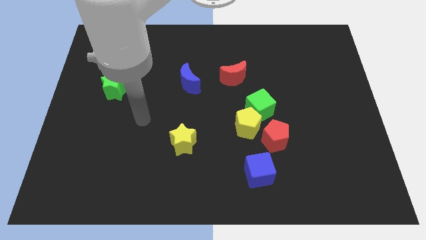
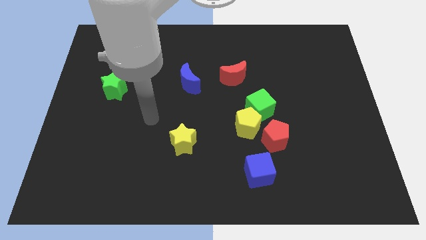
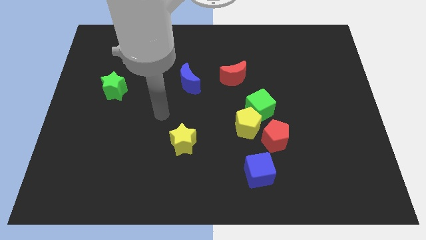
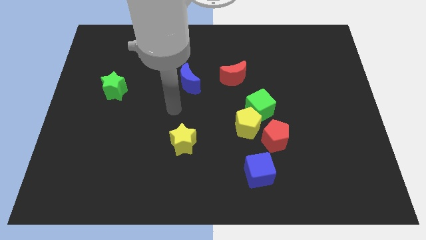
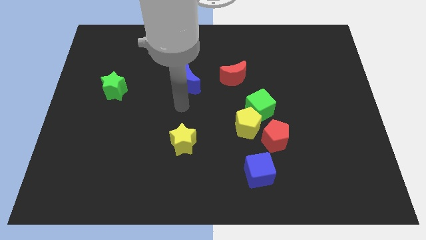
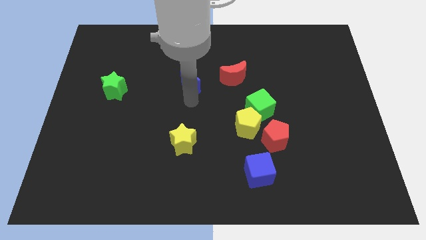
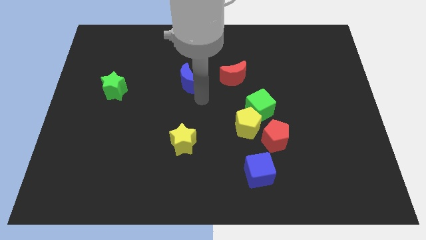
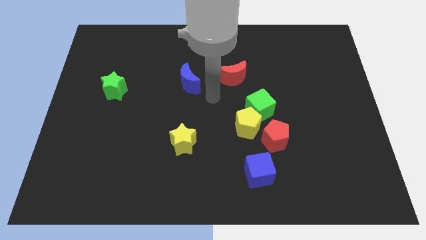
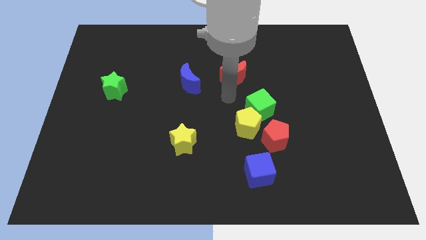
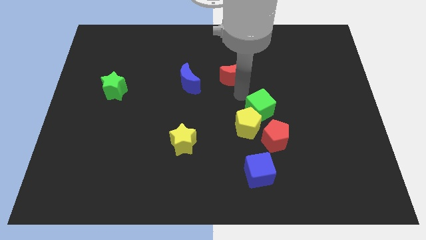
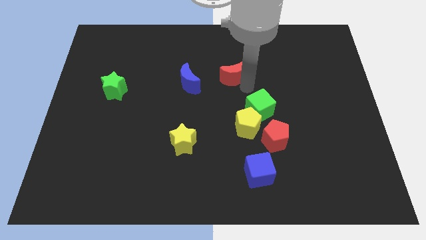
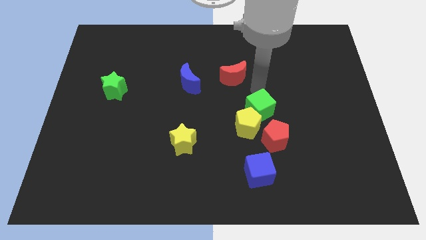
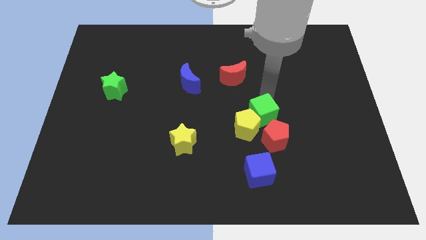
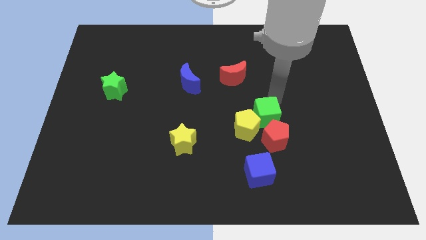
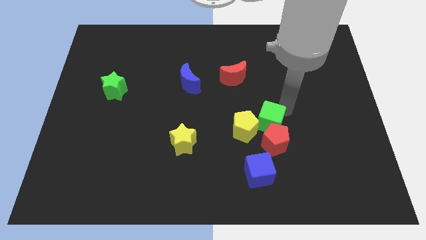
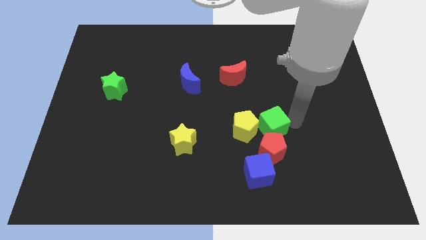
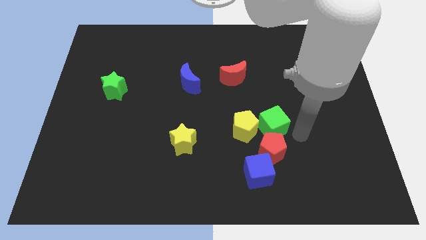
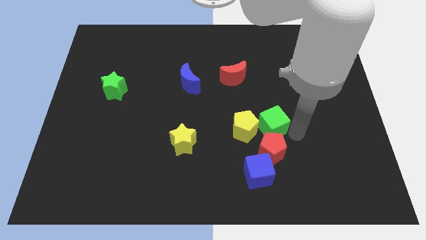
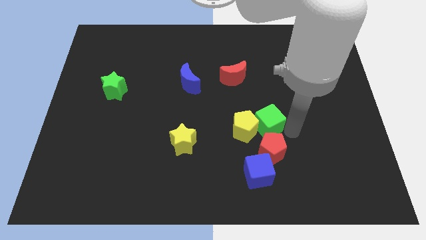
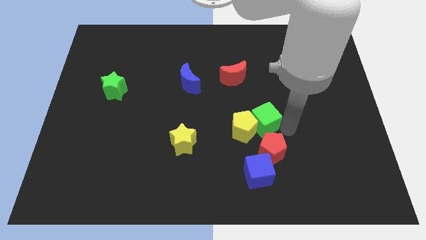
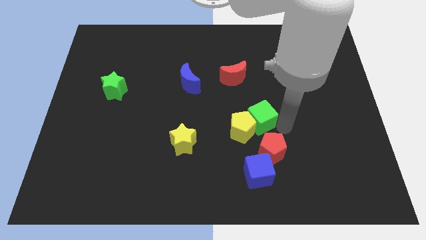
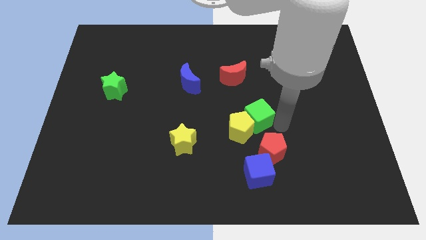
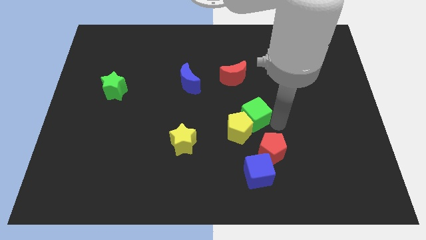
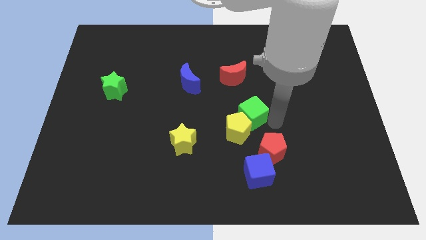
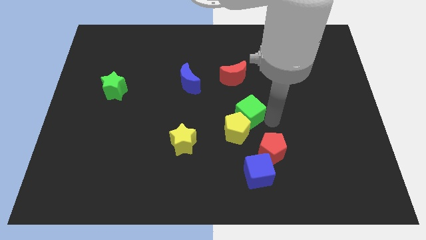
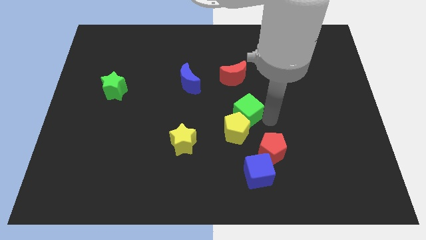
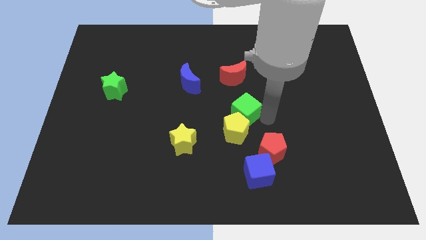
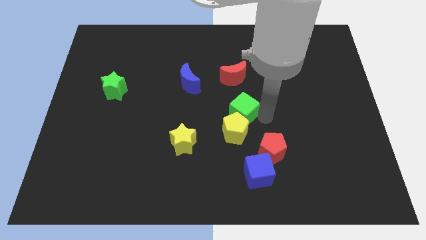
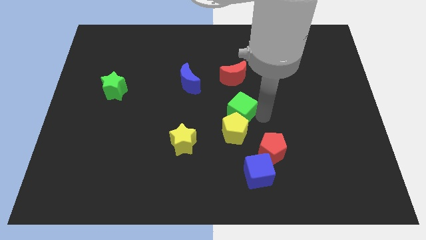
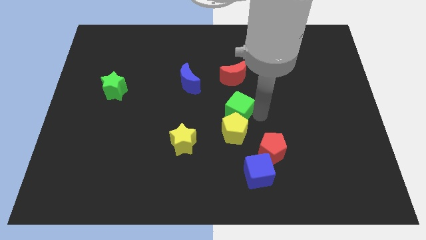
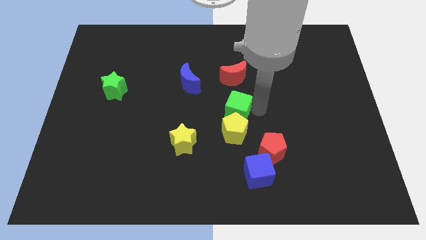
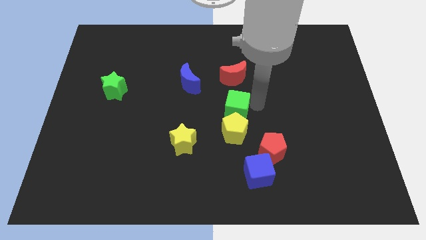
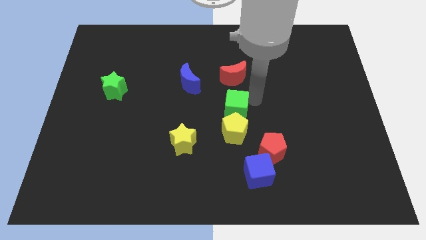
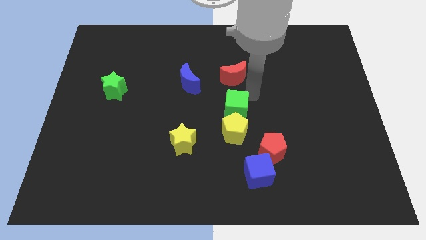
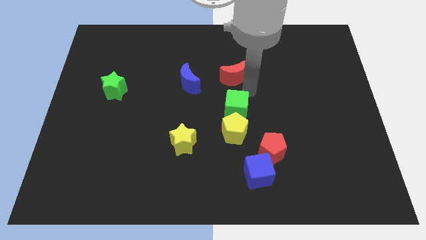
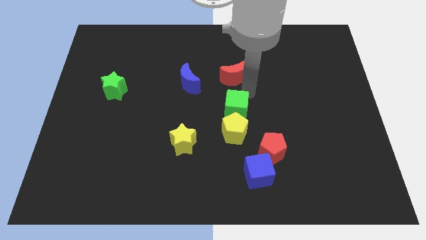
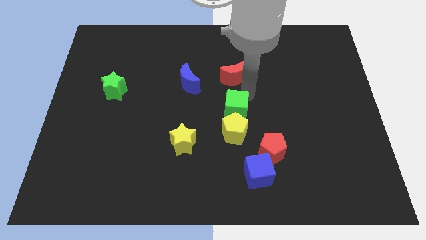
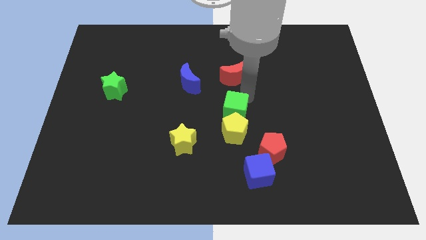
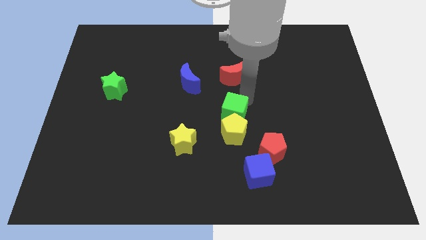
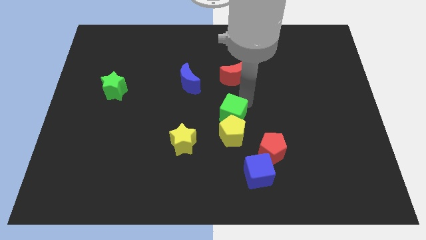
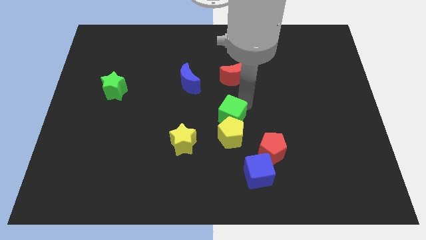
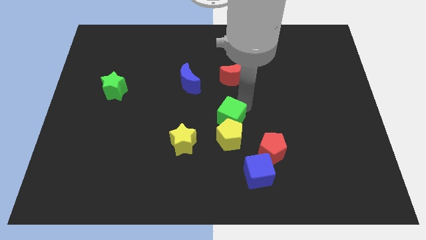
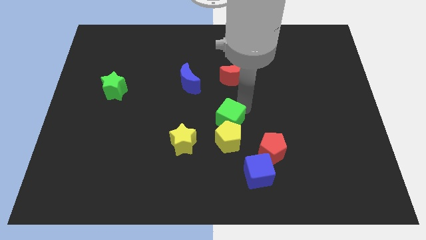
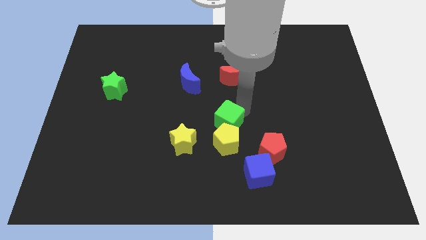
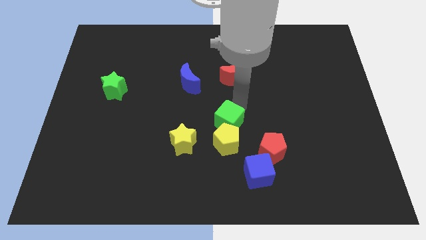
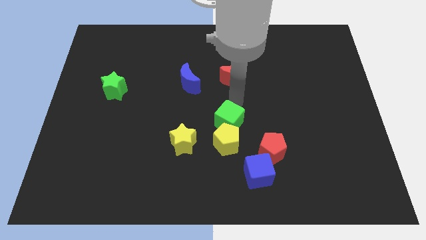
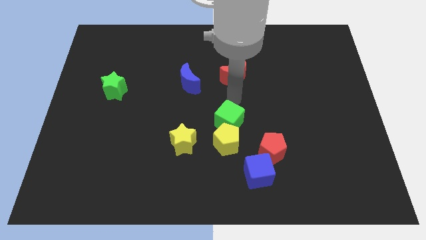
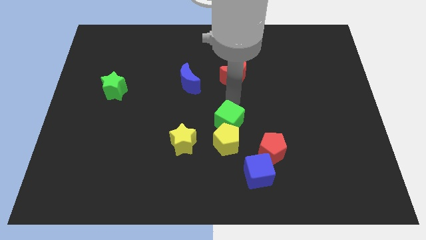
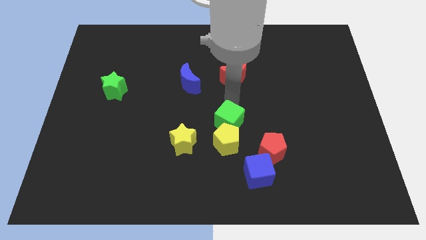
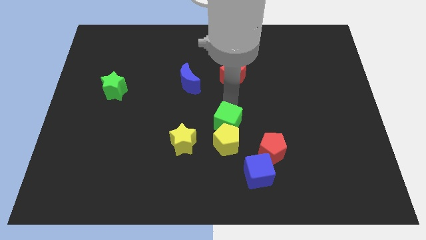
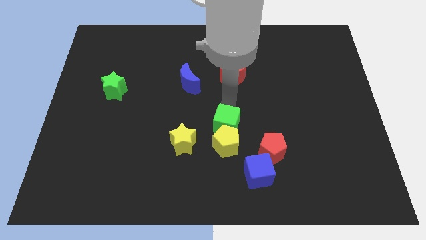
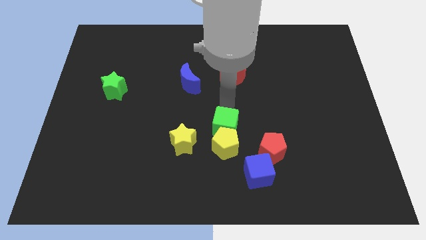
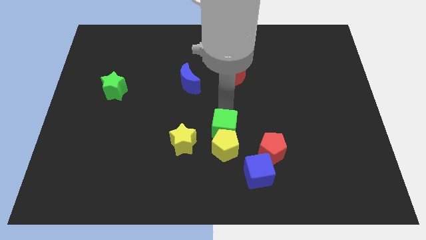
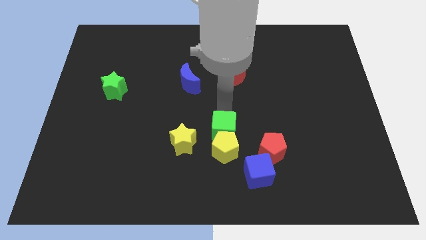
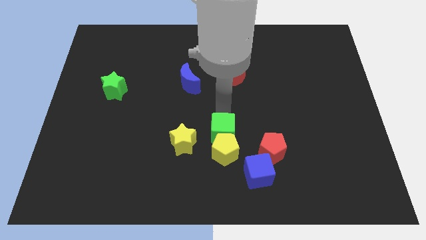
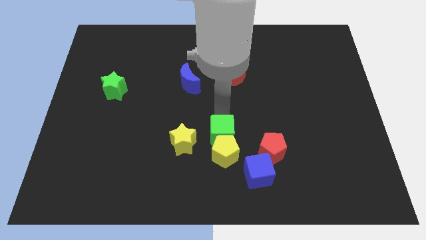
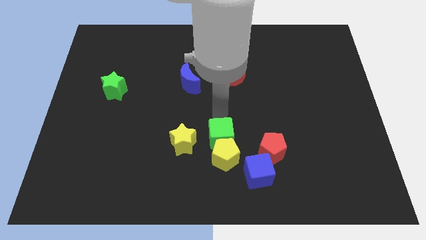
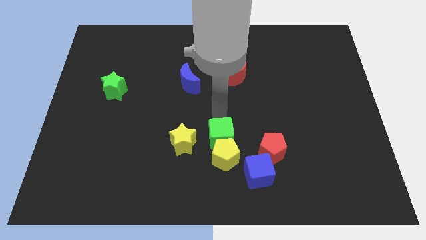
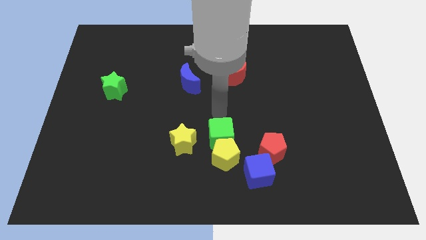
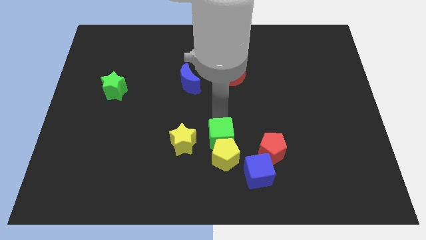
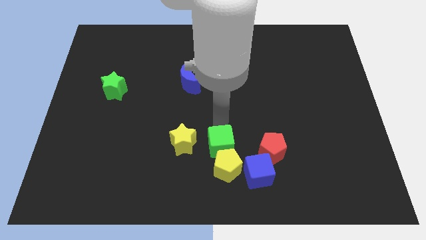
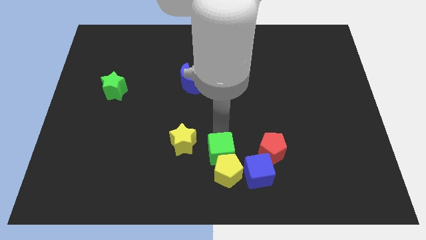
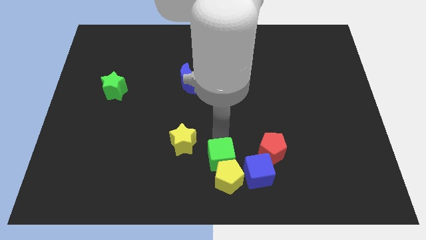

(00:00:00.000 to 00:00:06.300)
move the green cube to the bottom side
